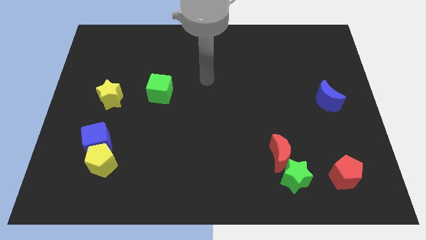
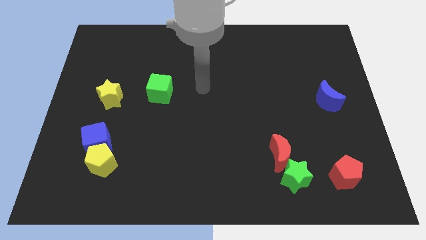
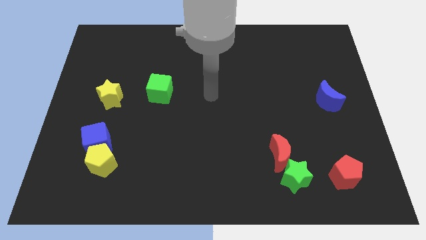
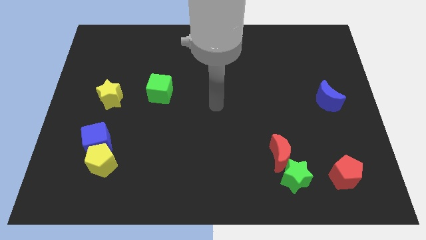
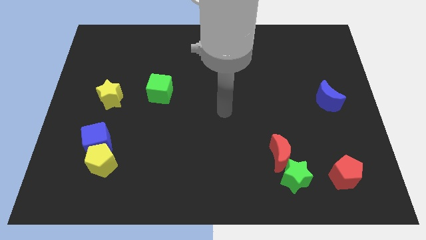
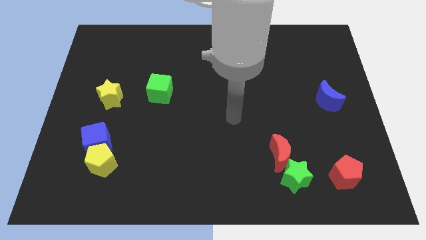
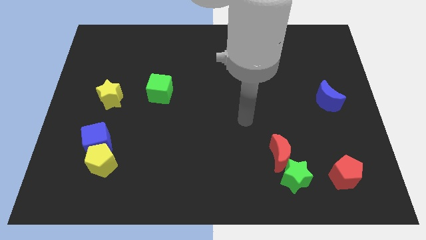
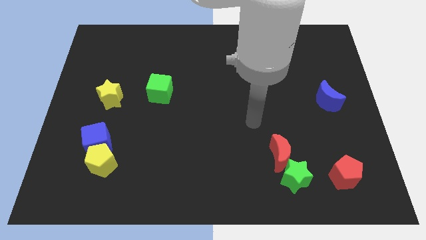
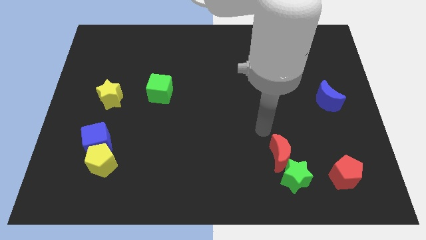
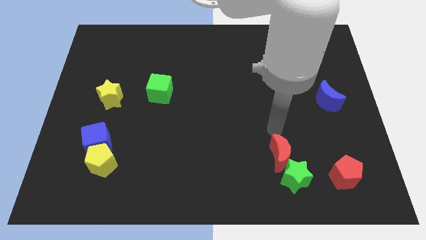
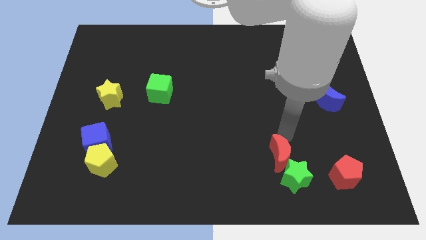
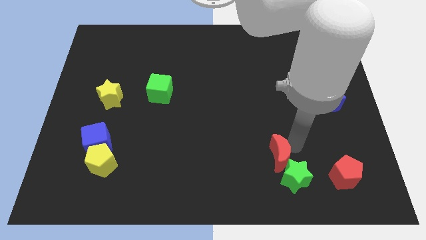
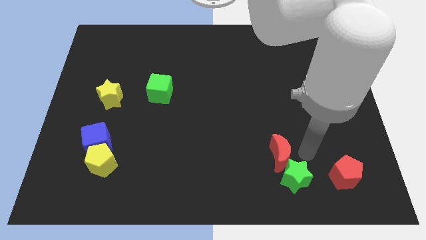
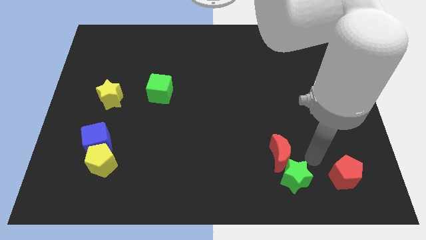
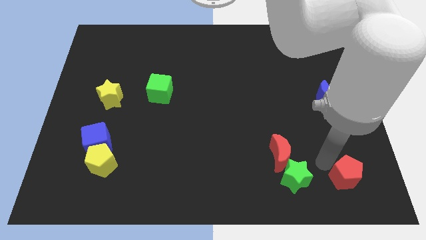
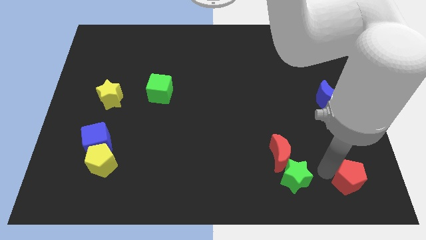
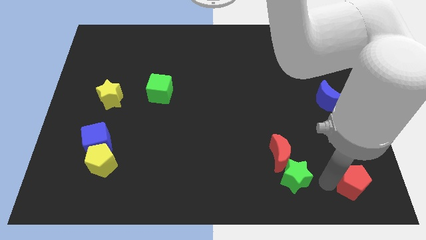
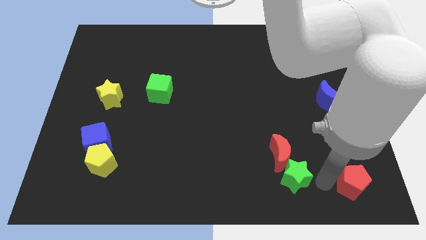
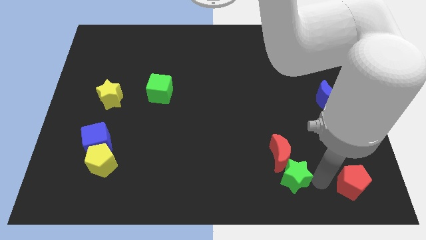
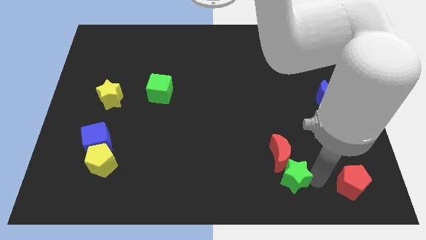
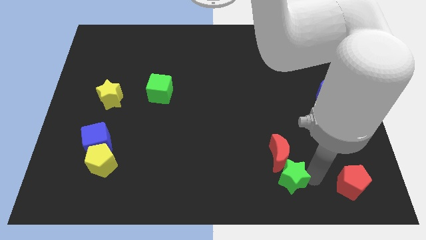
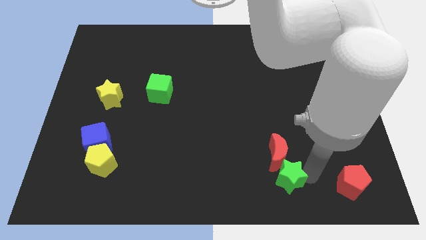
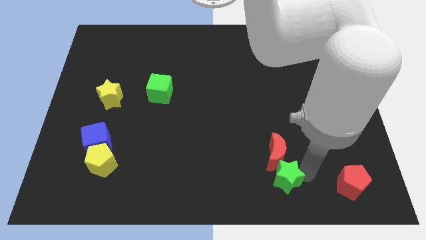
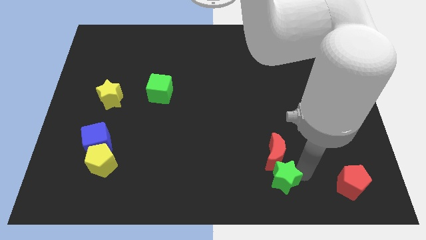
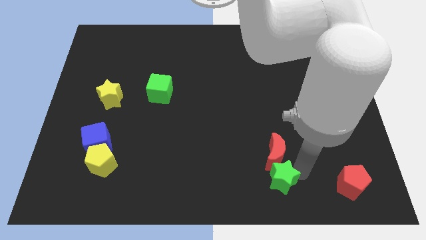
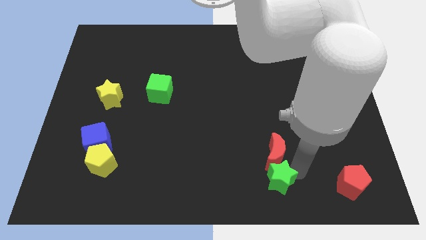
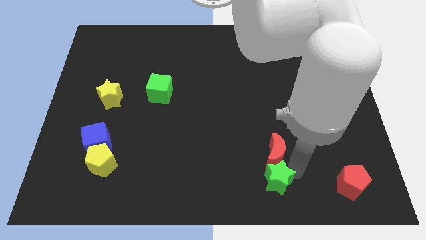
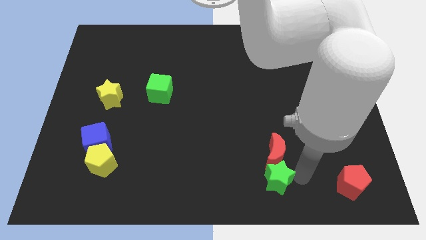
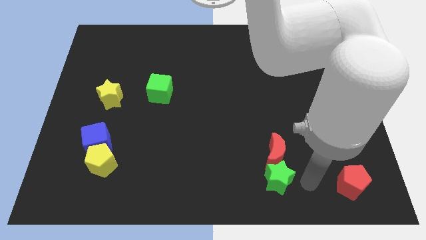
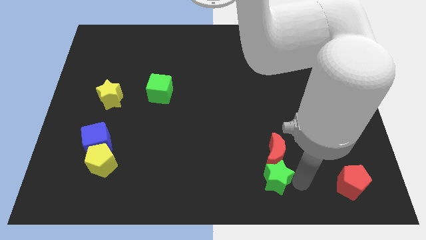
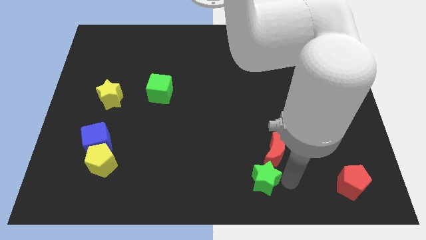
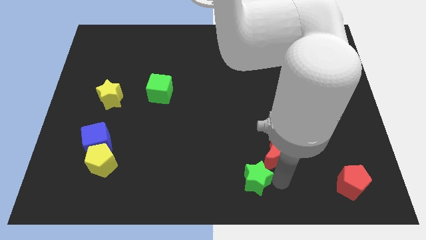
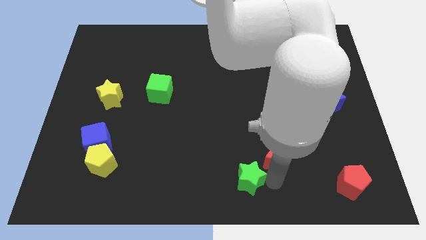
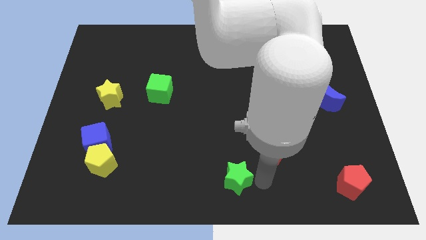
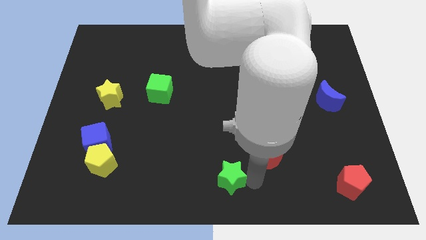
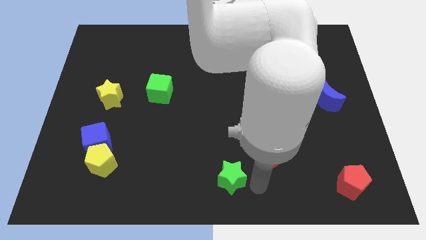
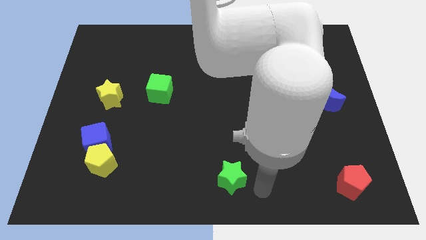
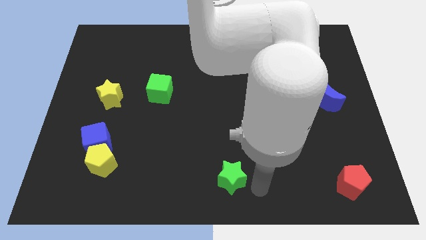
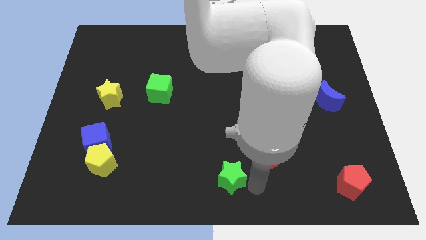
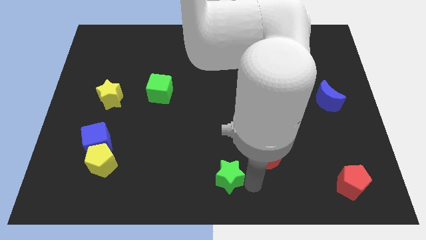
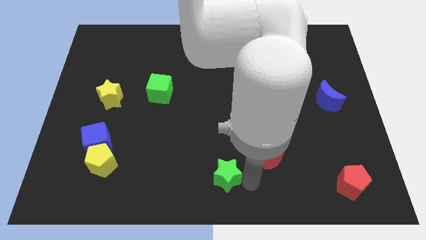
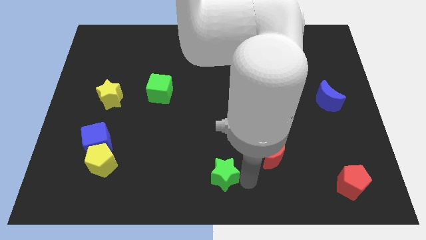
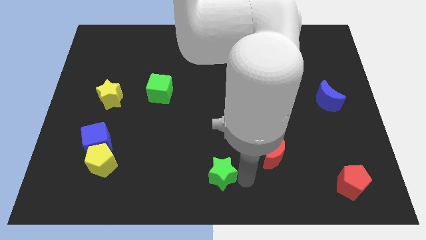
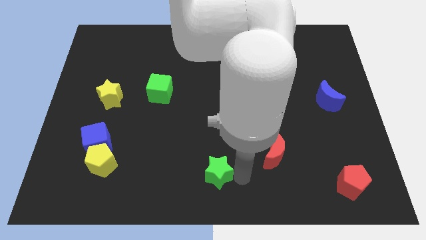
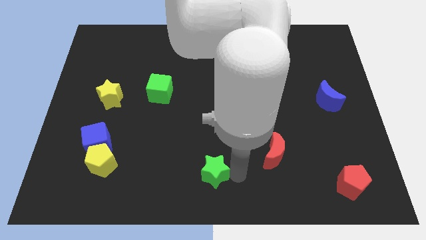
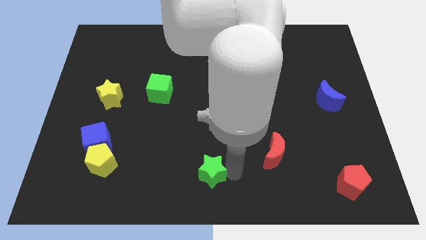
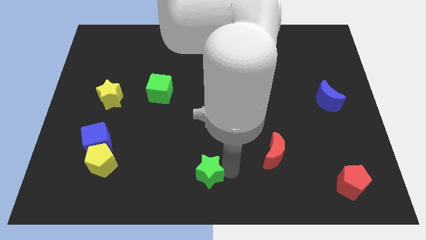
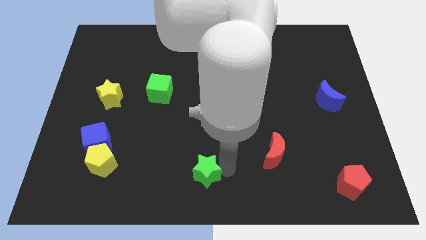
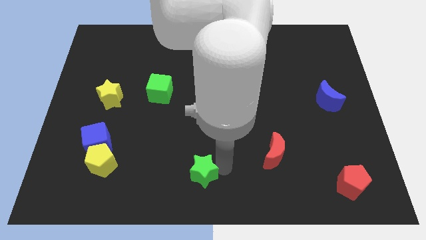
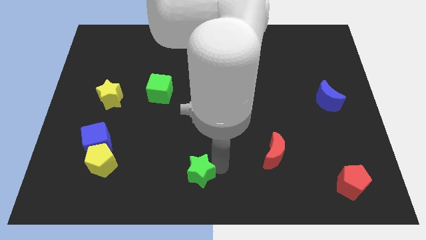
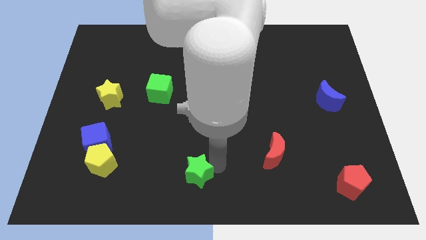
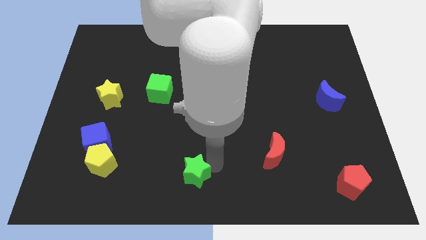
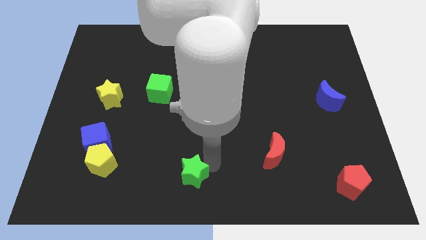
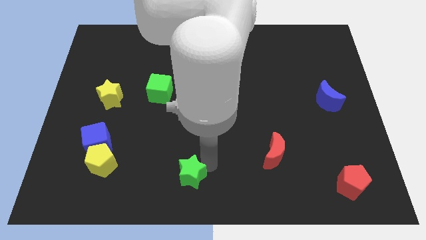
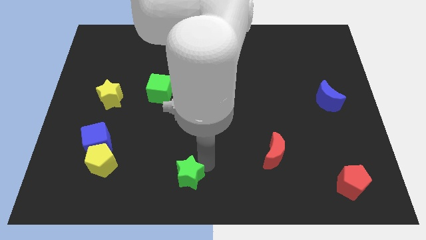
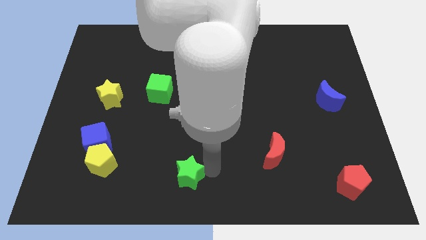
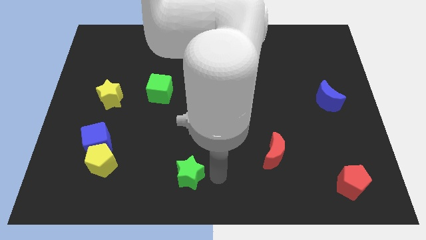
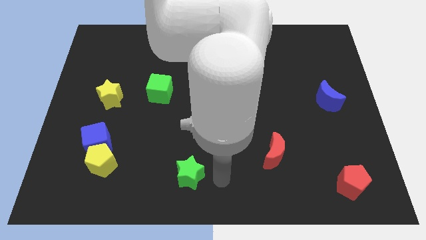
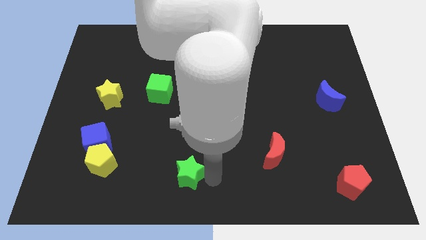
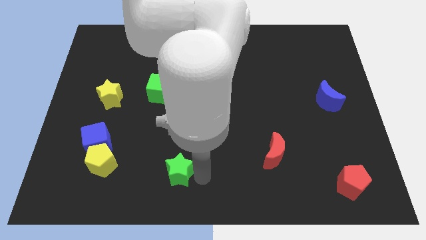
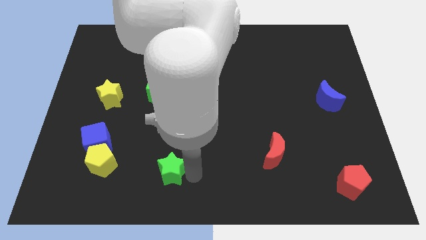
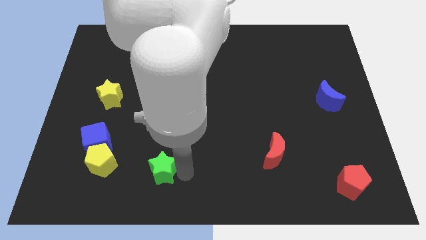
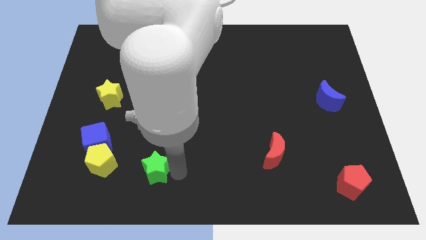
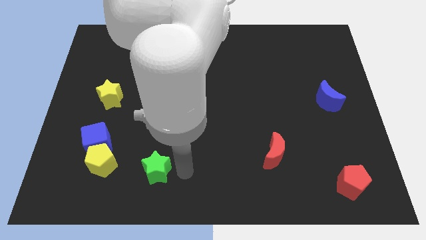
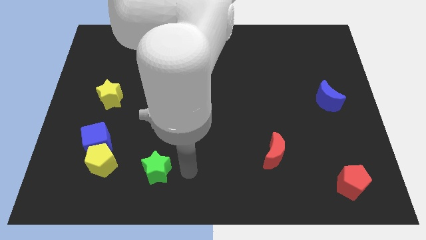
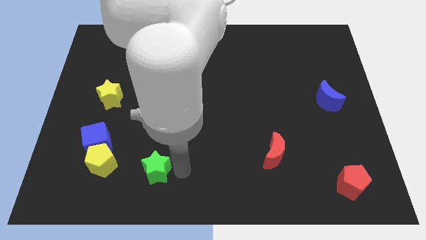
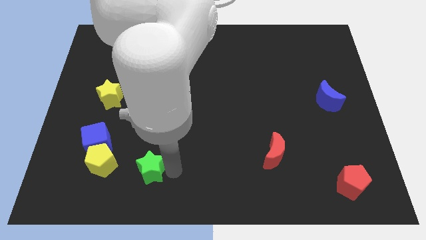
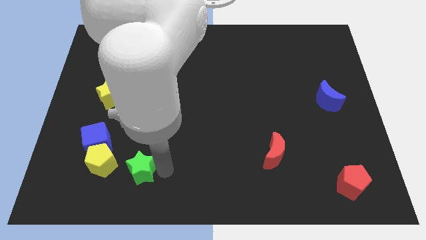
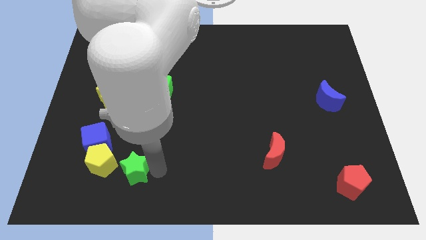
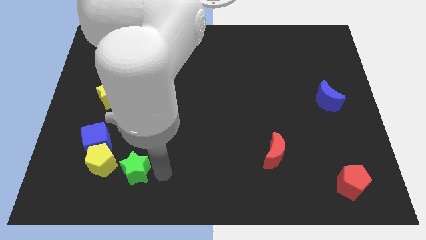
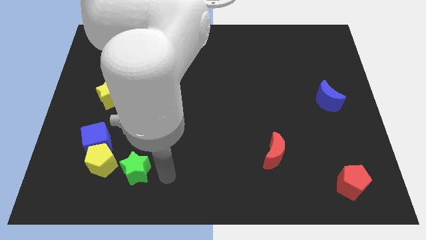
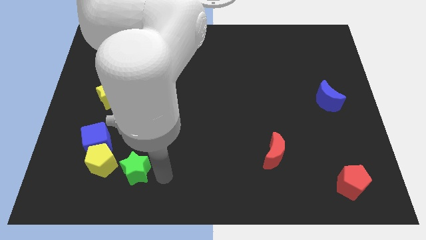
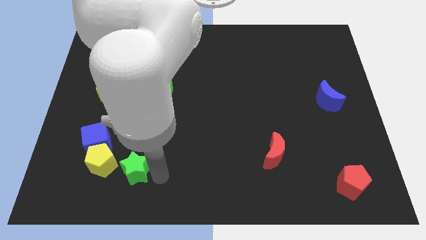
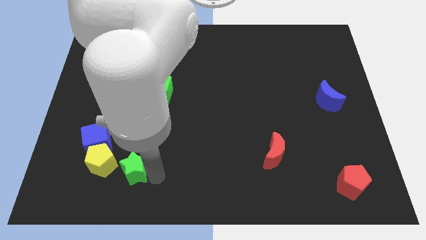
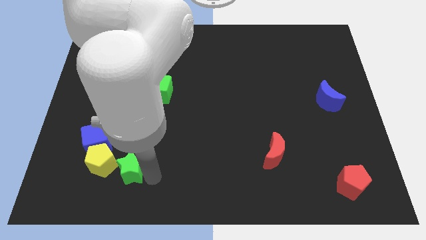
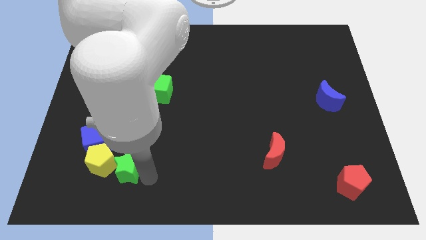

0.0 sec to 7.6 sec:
move the green star next to the yellow pentagon

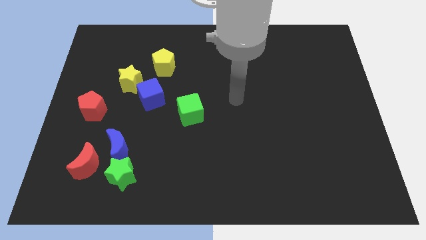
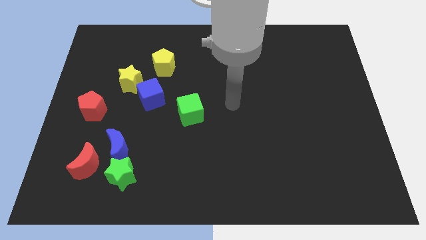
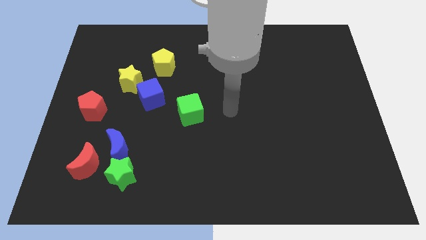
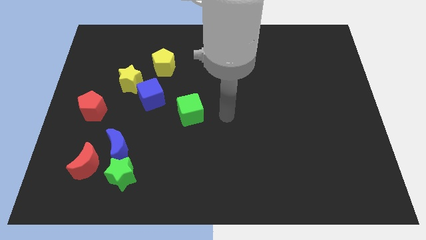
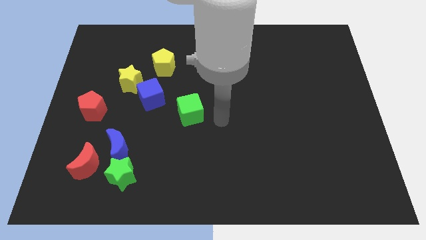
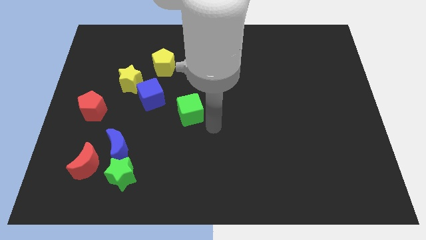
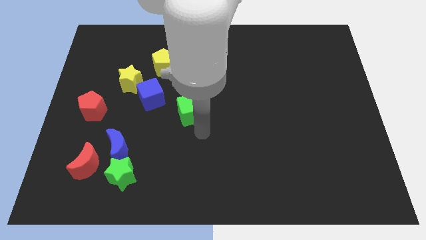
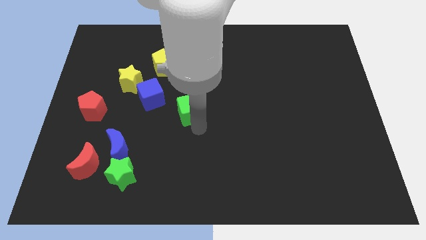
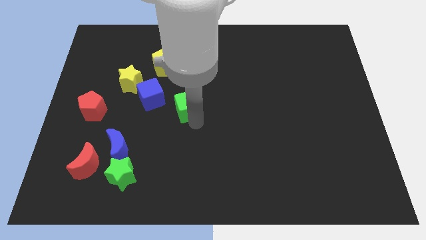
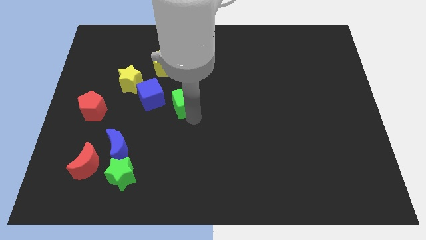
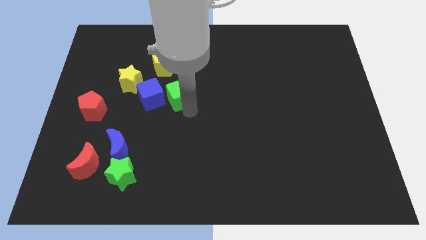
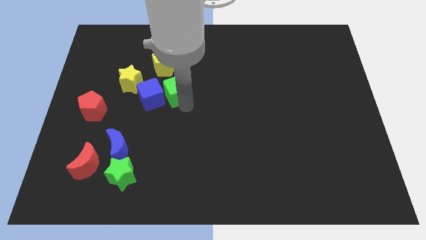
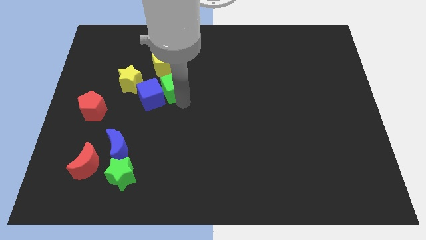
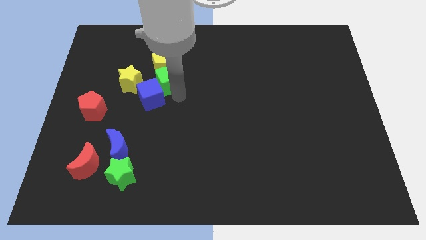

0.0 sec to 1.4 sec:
move the green cube towards the yellow pentagon
